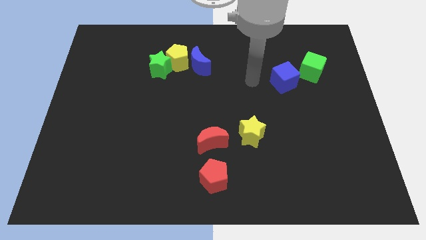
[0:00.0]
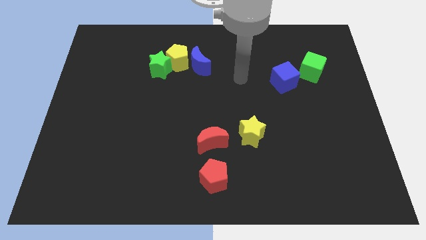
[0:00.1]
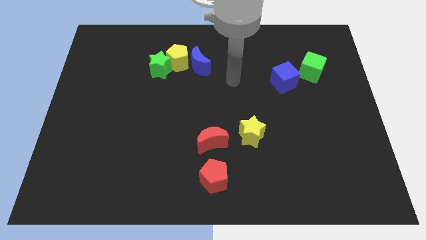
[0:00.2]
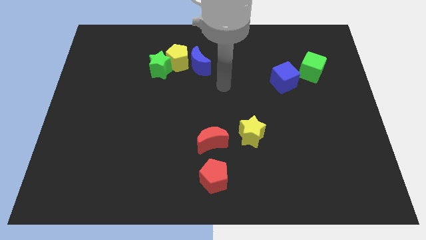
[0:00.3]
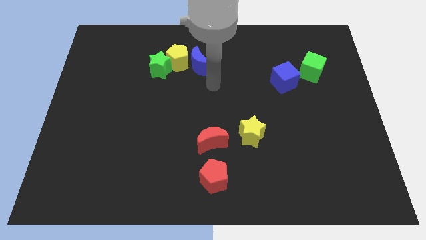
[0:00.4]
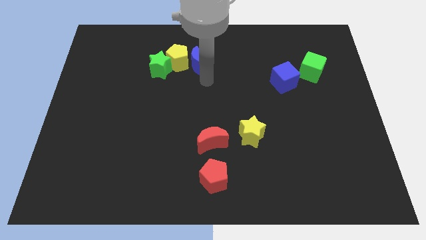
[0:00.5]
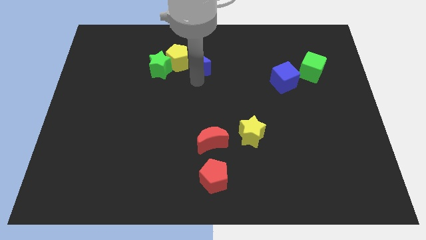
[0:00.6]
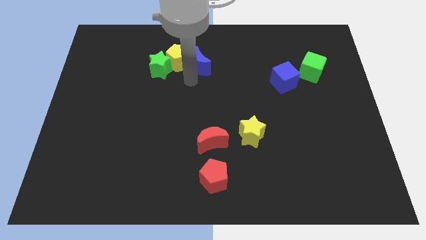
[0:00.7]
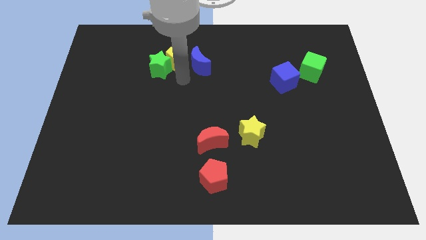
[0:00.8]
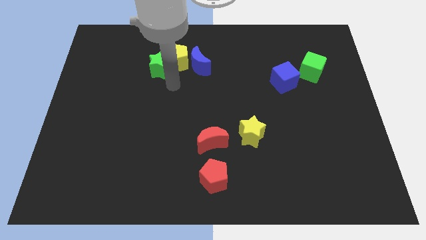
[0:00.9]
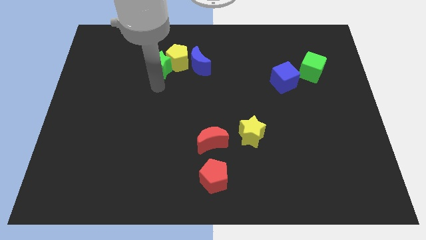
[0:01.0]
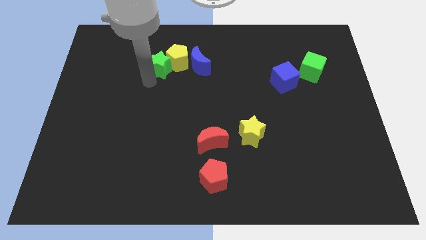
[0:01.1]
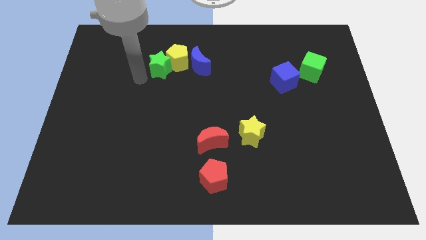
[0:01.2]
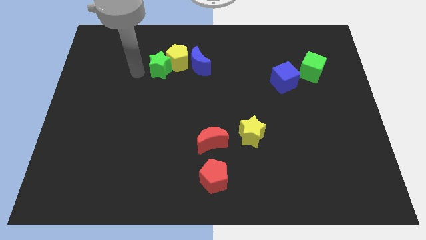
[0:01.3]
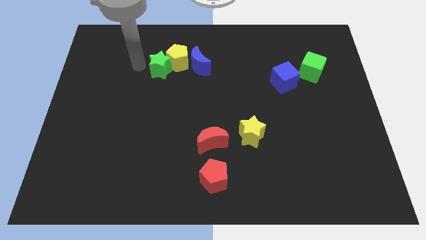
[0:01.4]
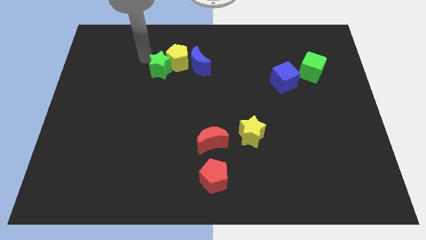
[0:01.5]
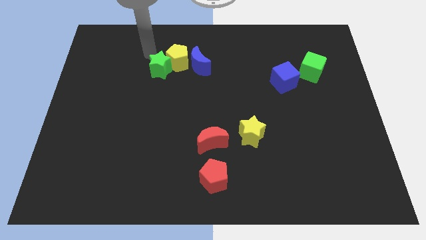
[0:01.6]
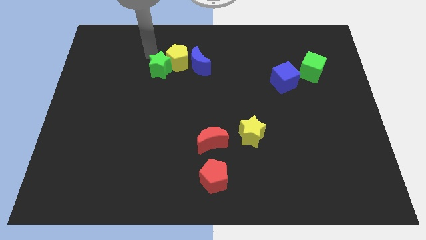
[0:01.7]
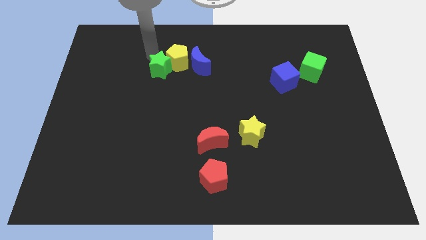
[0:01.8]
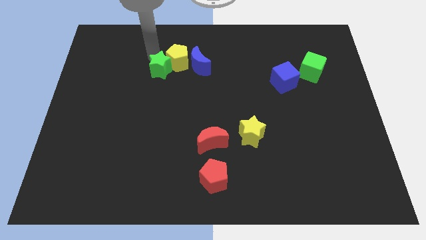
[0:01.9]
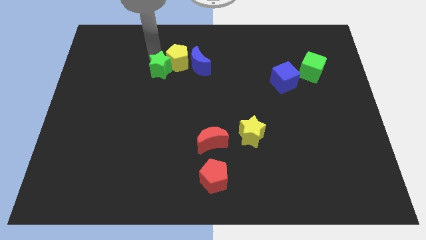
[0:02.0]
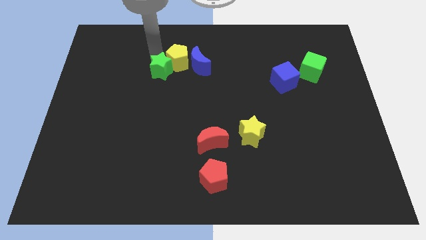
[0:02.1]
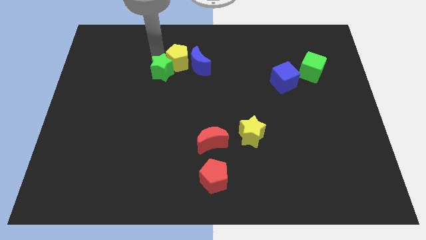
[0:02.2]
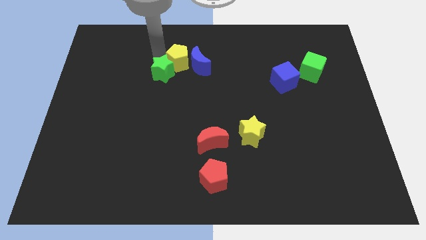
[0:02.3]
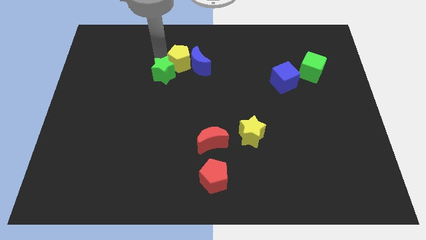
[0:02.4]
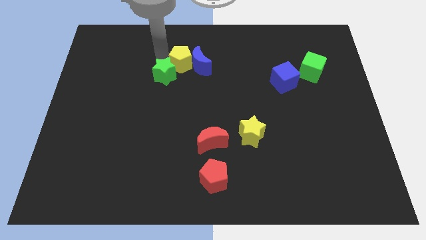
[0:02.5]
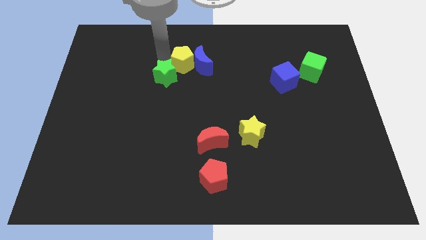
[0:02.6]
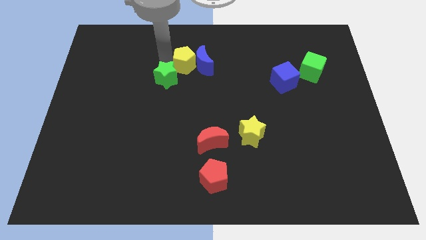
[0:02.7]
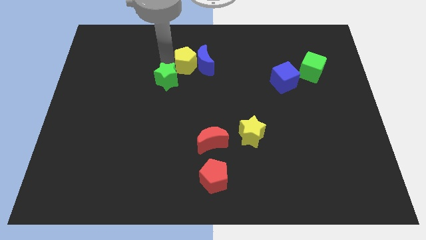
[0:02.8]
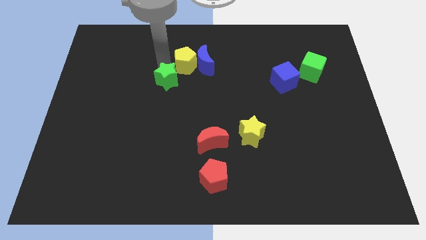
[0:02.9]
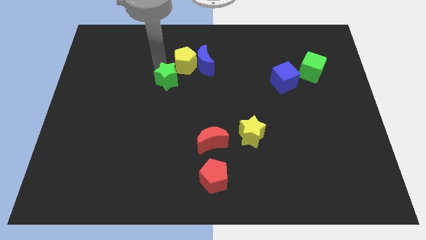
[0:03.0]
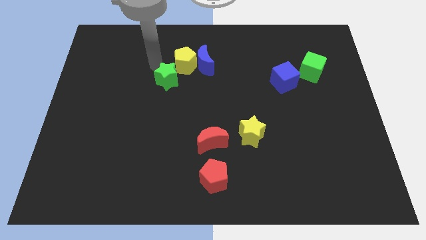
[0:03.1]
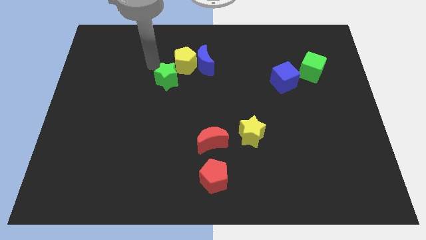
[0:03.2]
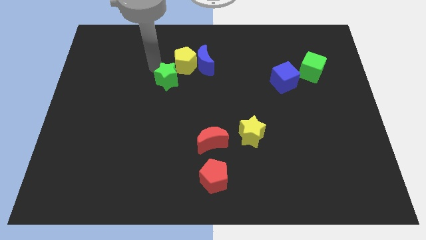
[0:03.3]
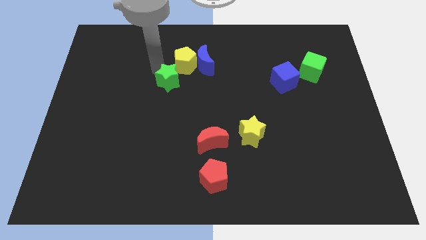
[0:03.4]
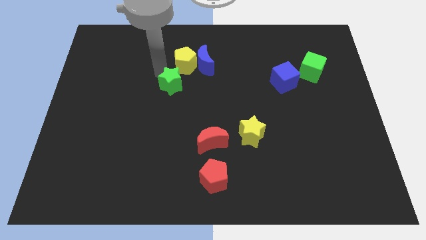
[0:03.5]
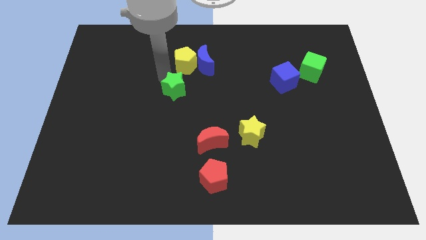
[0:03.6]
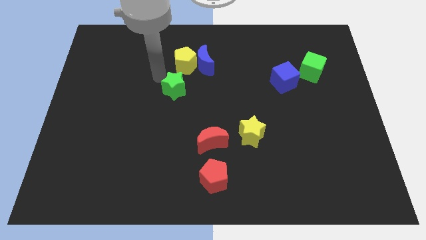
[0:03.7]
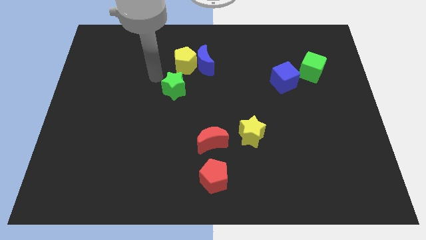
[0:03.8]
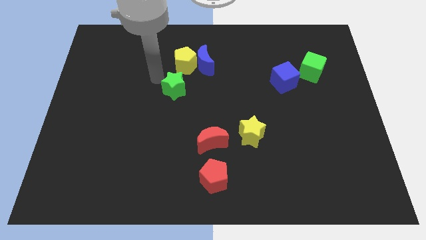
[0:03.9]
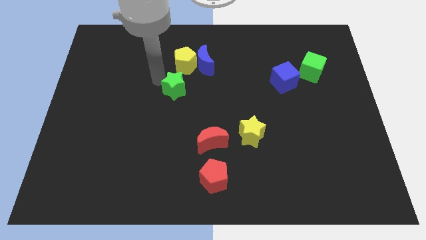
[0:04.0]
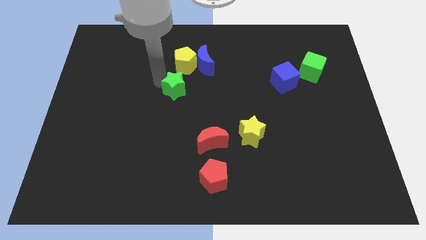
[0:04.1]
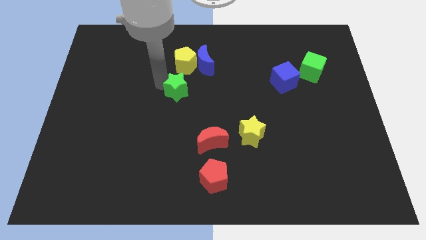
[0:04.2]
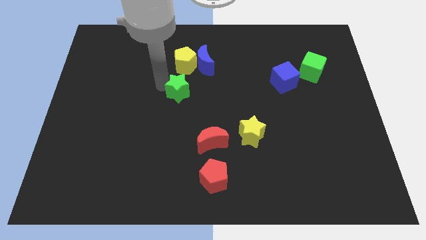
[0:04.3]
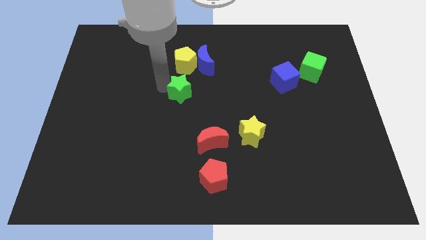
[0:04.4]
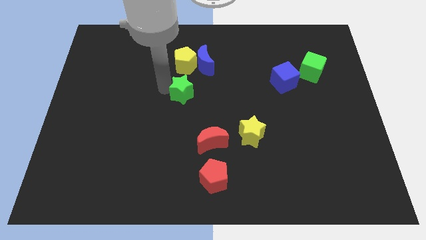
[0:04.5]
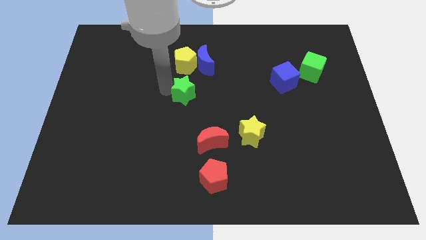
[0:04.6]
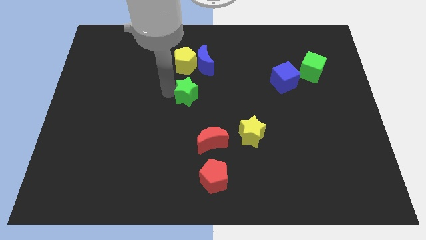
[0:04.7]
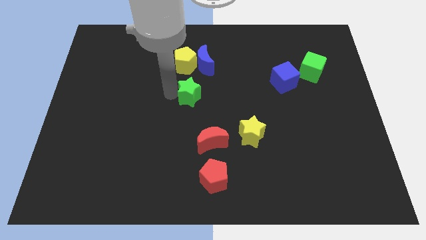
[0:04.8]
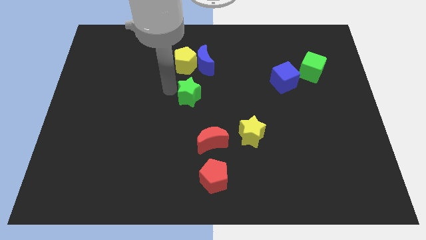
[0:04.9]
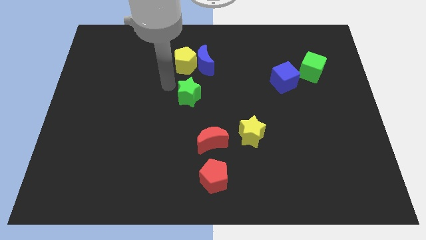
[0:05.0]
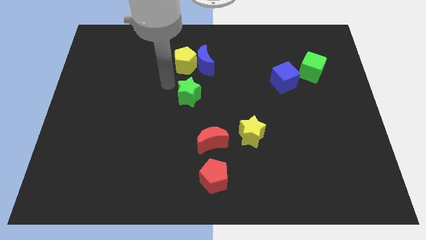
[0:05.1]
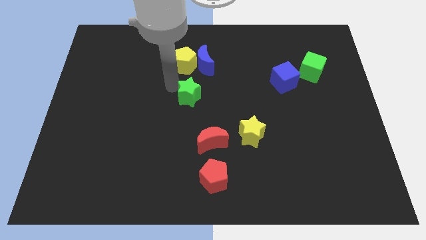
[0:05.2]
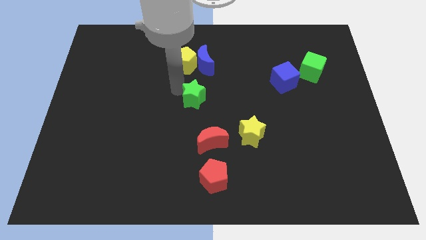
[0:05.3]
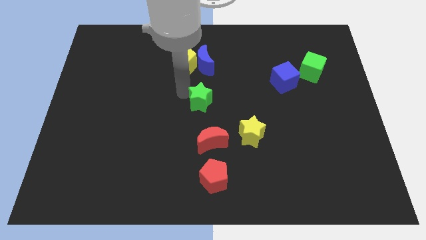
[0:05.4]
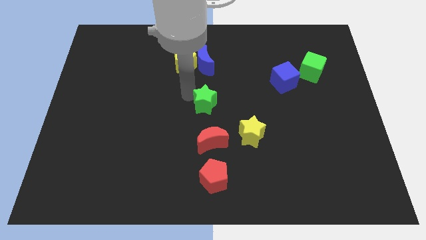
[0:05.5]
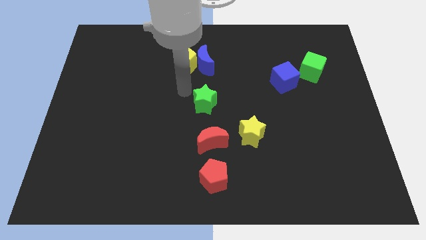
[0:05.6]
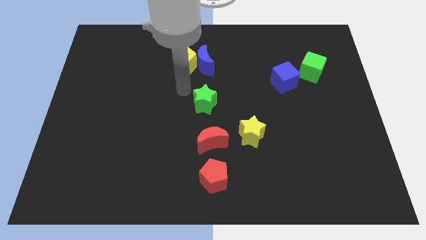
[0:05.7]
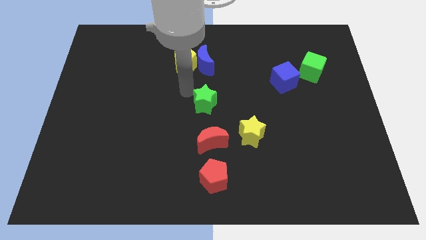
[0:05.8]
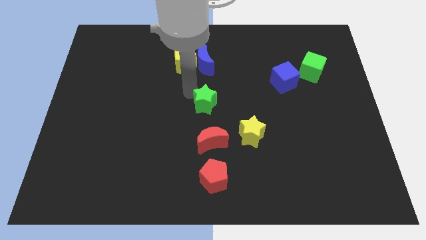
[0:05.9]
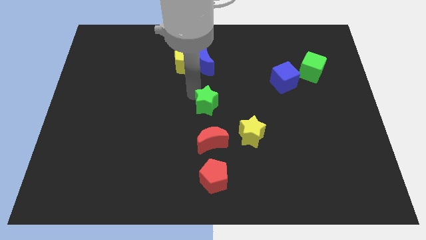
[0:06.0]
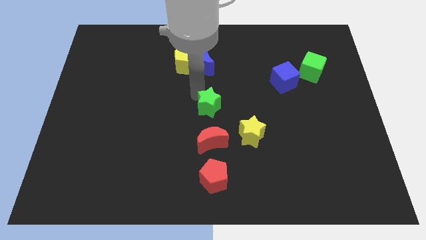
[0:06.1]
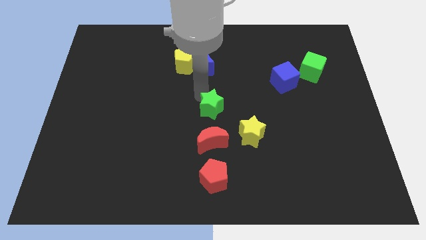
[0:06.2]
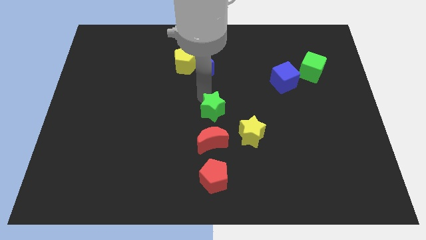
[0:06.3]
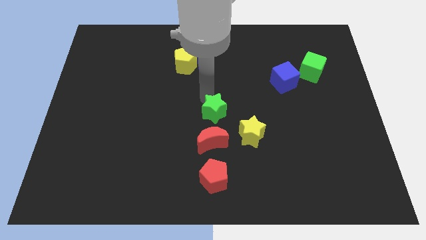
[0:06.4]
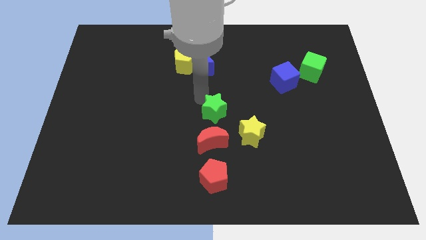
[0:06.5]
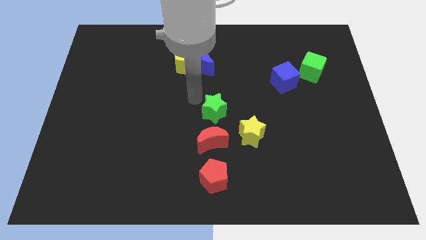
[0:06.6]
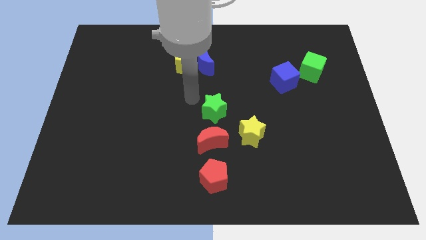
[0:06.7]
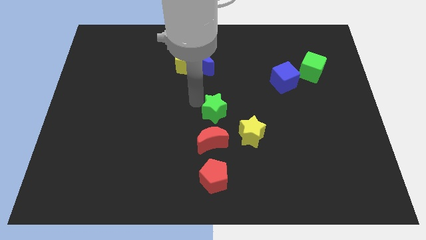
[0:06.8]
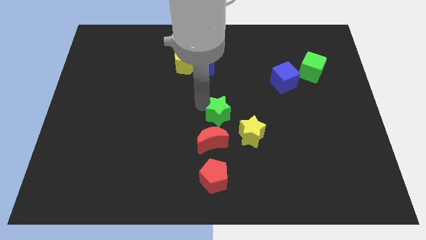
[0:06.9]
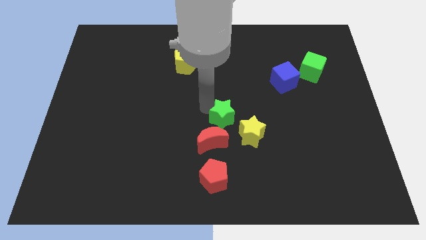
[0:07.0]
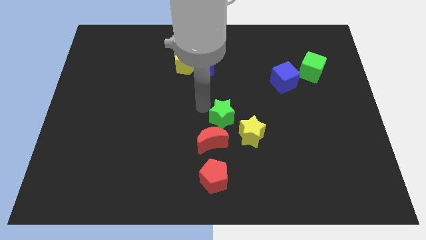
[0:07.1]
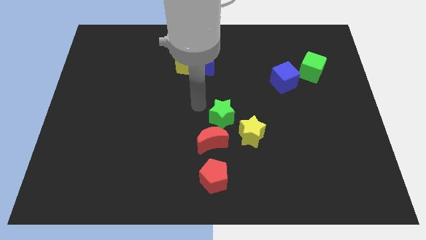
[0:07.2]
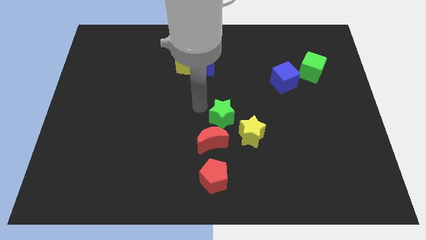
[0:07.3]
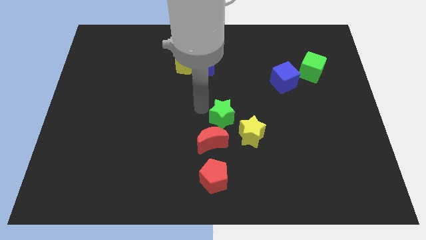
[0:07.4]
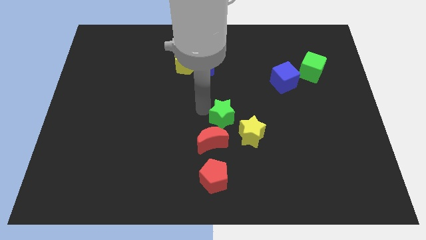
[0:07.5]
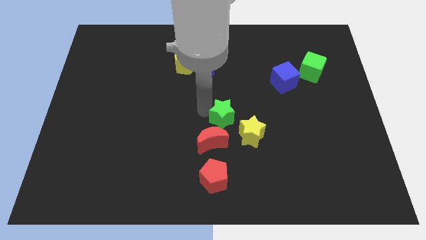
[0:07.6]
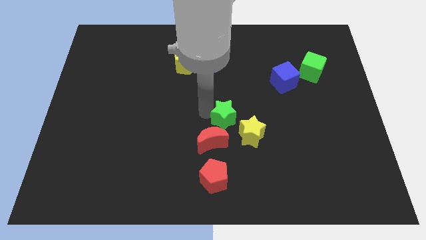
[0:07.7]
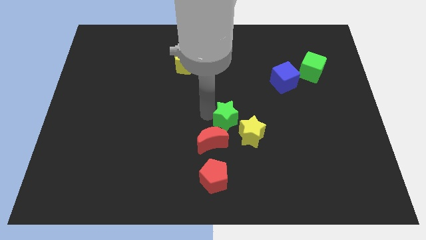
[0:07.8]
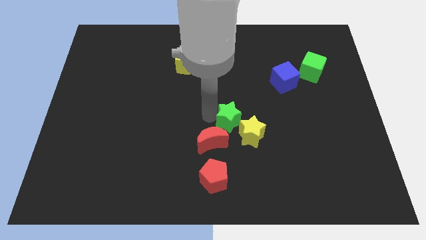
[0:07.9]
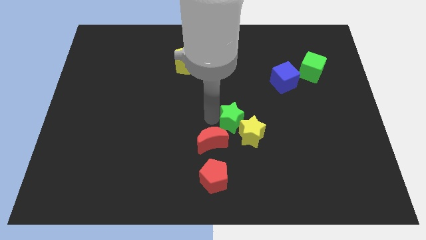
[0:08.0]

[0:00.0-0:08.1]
put the green star towards the yellow star
